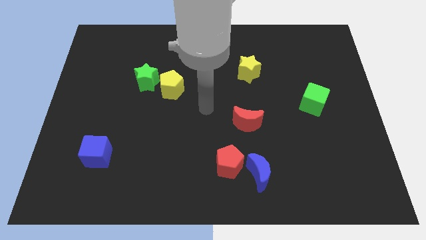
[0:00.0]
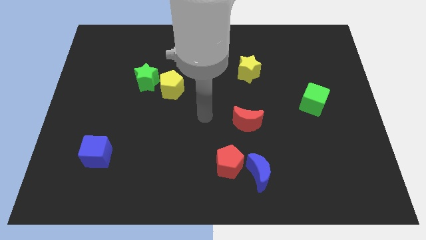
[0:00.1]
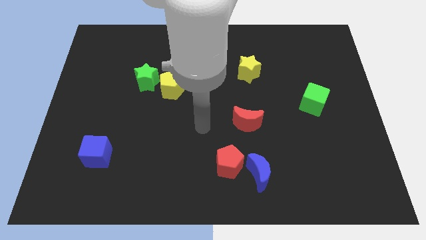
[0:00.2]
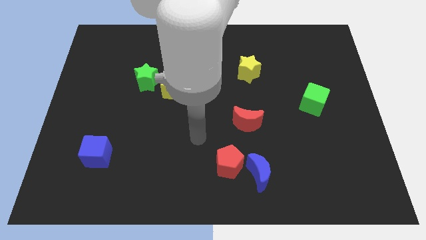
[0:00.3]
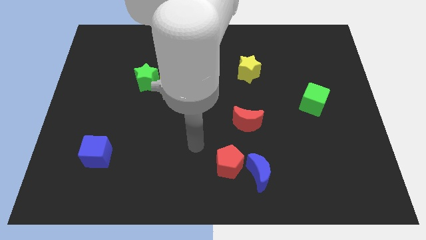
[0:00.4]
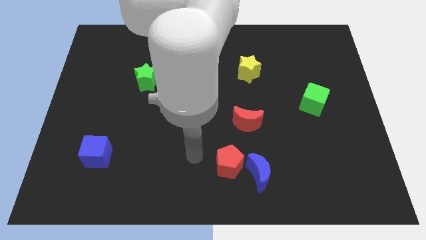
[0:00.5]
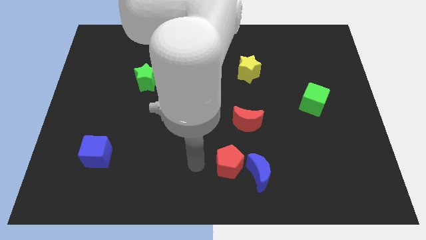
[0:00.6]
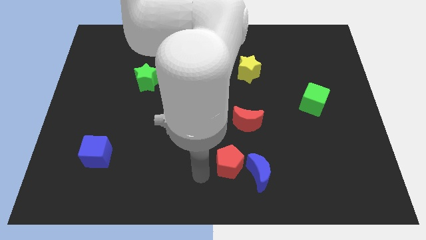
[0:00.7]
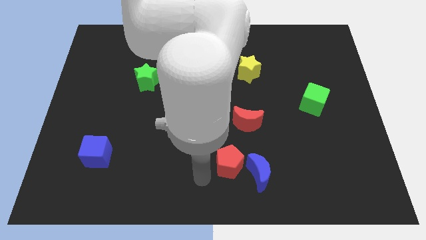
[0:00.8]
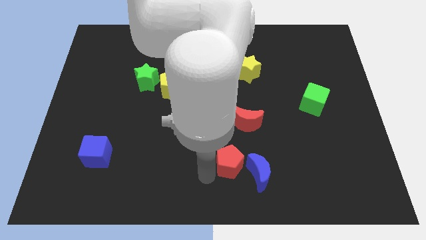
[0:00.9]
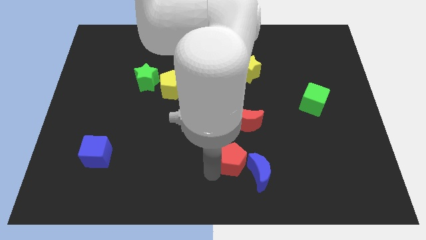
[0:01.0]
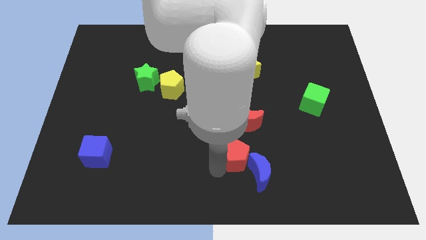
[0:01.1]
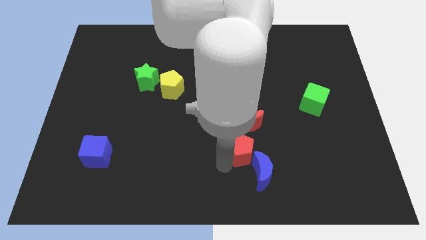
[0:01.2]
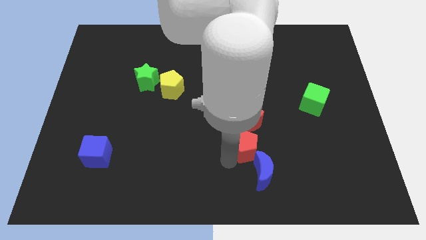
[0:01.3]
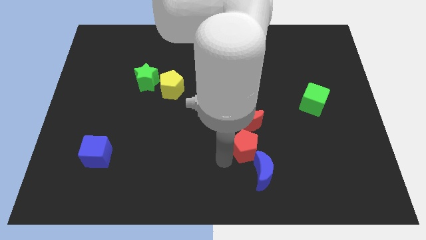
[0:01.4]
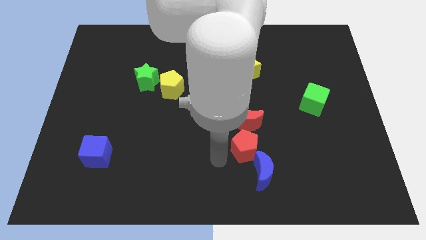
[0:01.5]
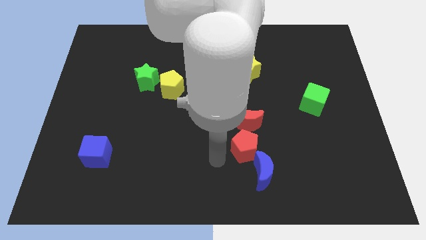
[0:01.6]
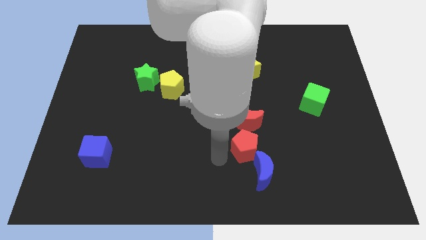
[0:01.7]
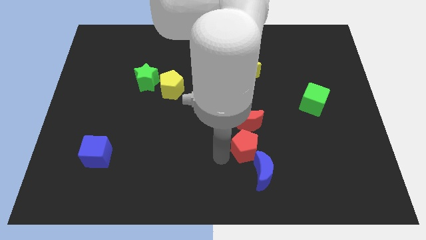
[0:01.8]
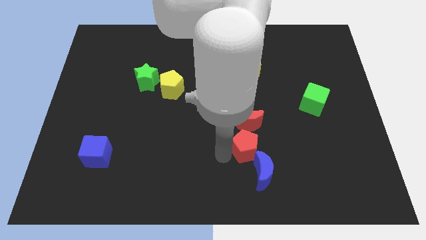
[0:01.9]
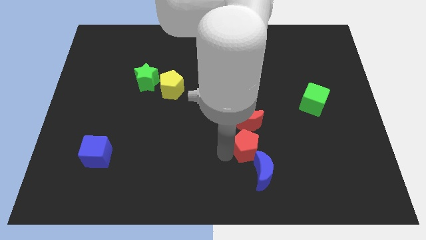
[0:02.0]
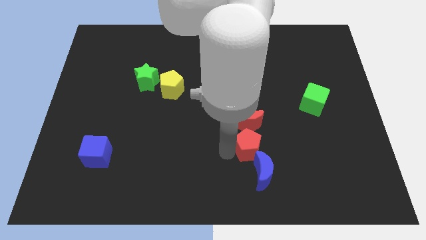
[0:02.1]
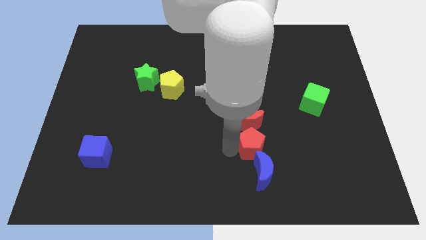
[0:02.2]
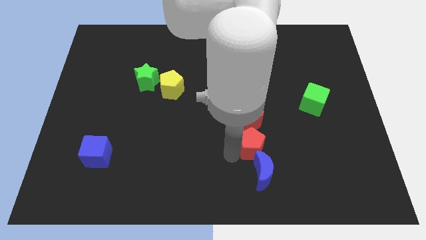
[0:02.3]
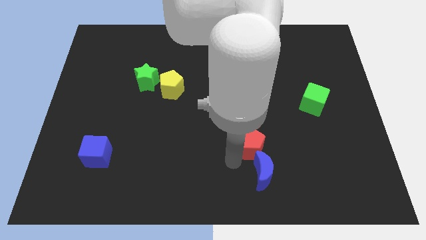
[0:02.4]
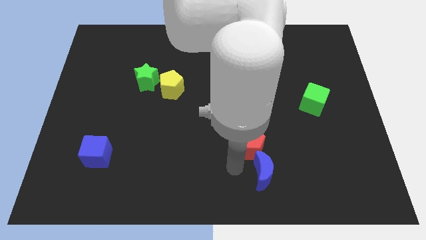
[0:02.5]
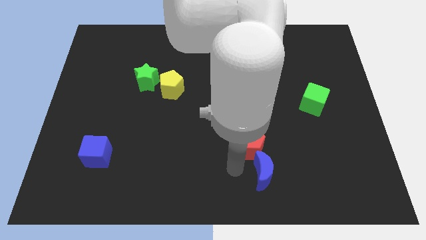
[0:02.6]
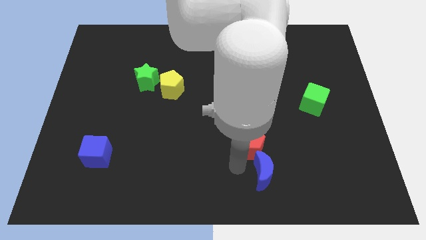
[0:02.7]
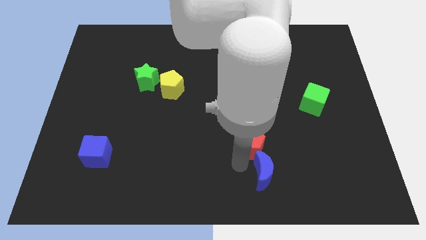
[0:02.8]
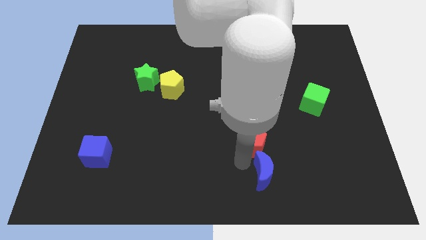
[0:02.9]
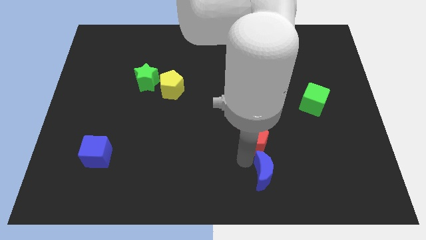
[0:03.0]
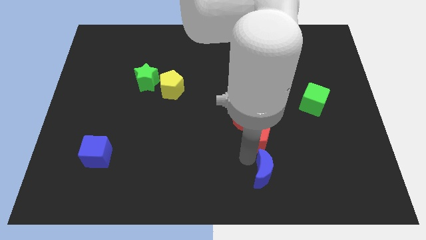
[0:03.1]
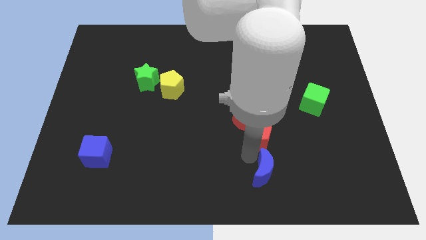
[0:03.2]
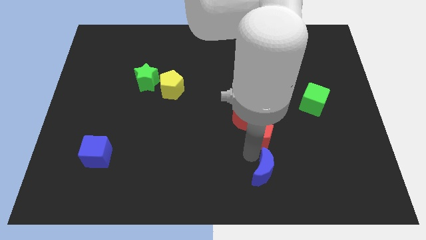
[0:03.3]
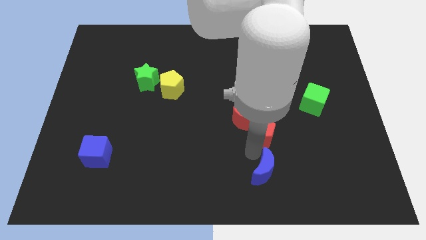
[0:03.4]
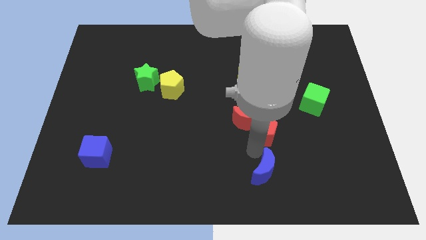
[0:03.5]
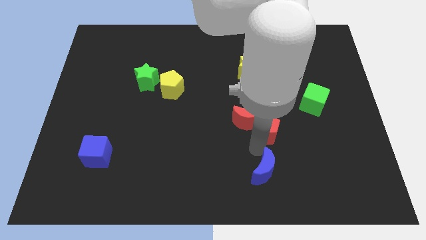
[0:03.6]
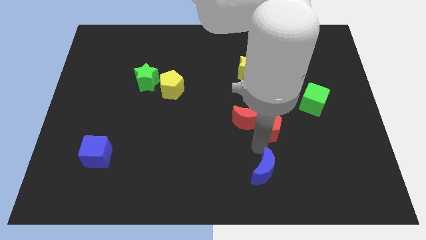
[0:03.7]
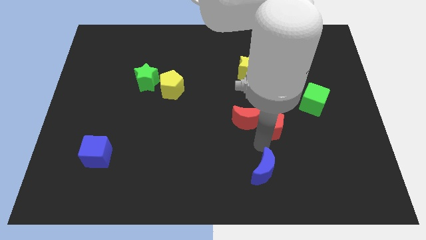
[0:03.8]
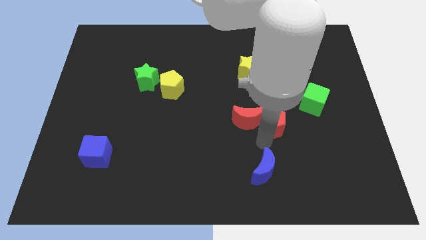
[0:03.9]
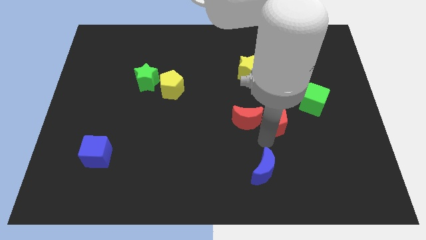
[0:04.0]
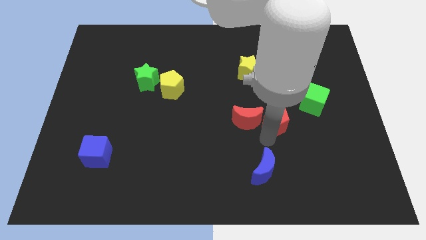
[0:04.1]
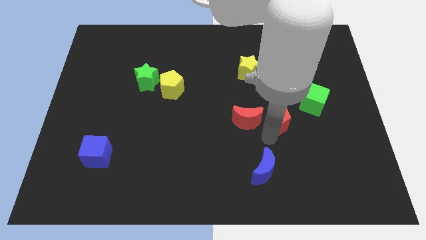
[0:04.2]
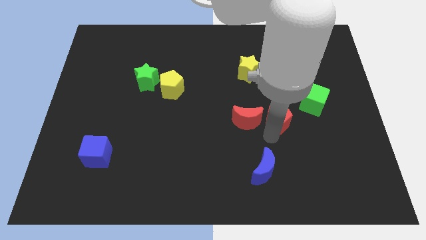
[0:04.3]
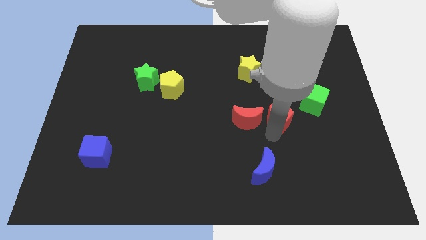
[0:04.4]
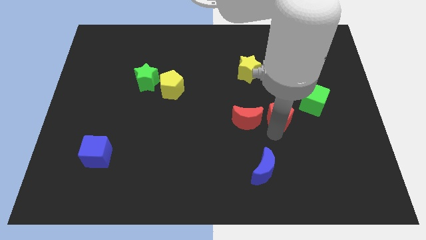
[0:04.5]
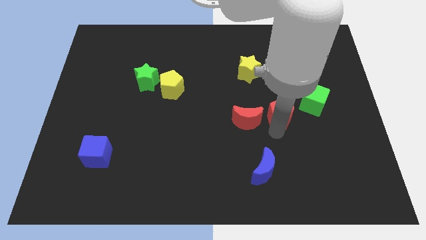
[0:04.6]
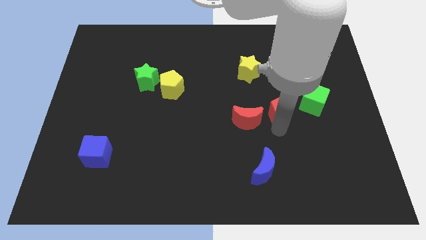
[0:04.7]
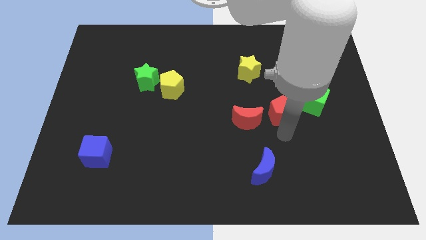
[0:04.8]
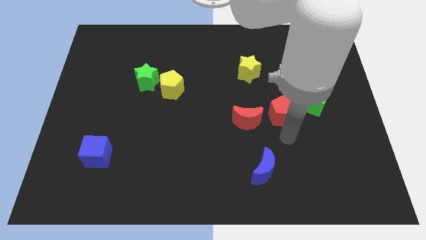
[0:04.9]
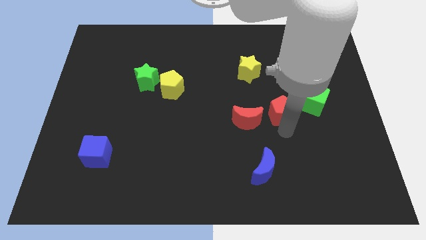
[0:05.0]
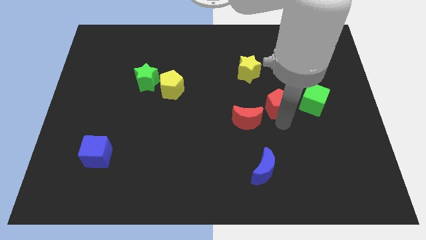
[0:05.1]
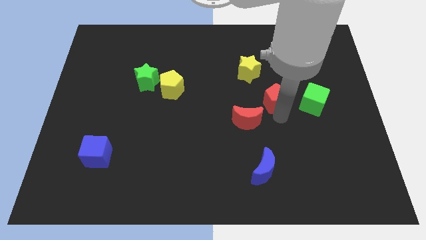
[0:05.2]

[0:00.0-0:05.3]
put the red pentagon to the bottom right side of the yellow star

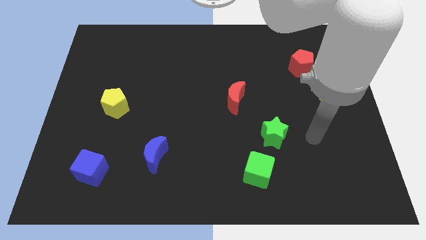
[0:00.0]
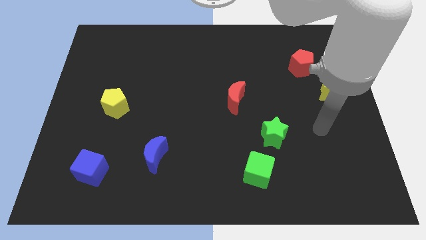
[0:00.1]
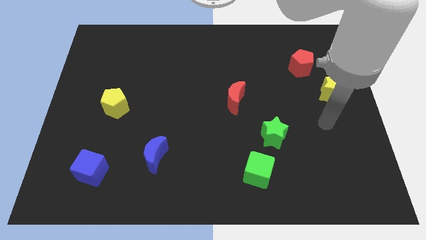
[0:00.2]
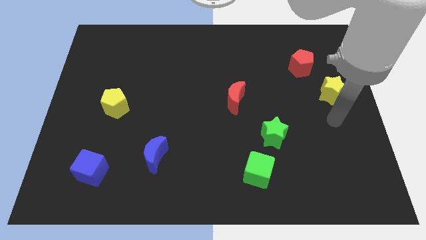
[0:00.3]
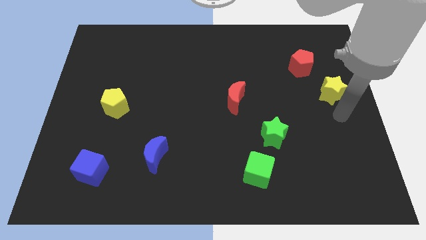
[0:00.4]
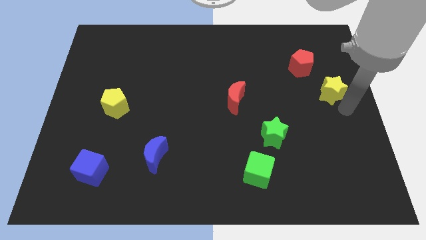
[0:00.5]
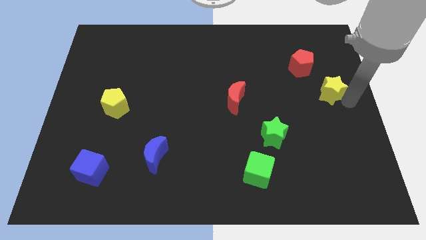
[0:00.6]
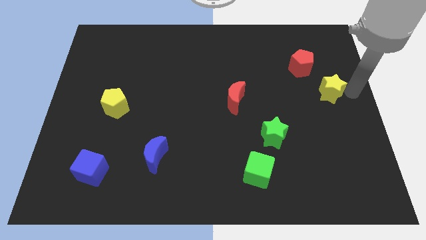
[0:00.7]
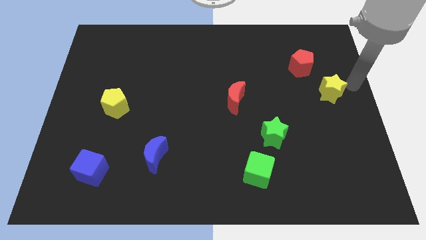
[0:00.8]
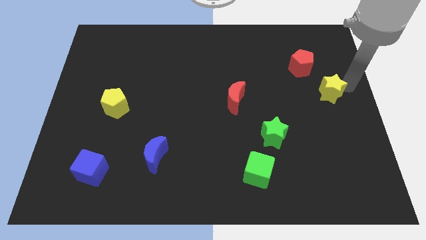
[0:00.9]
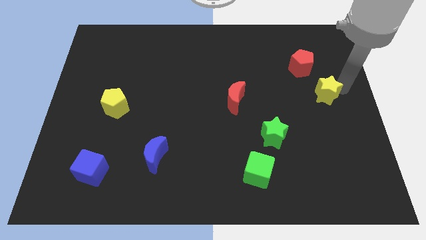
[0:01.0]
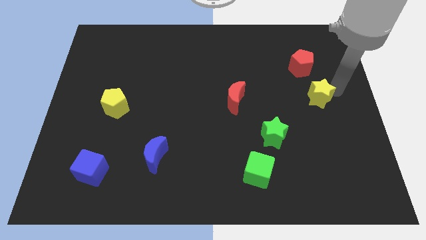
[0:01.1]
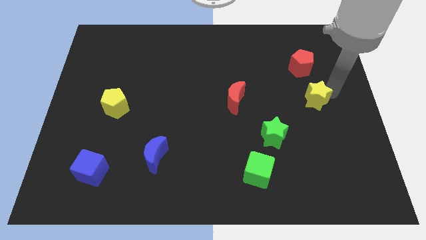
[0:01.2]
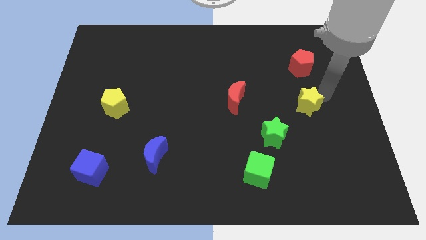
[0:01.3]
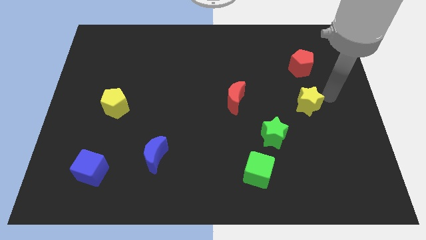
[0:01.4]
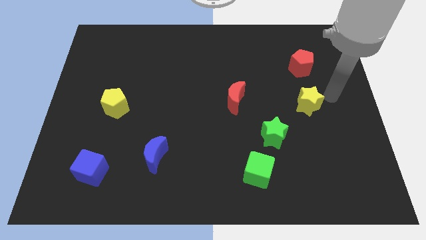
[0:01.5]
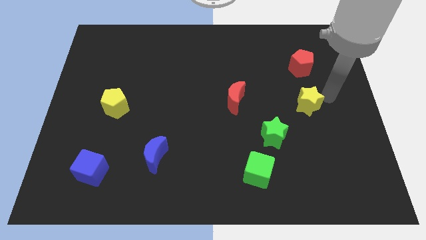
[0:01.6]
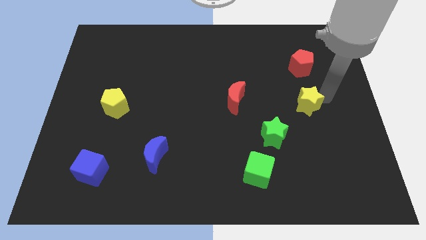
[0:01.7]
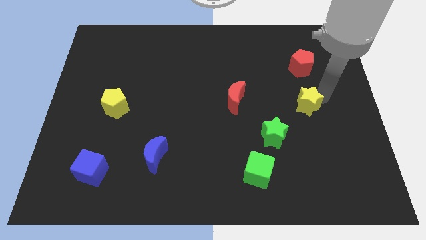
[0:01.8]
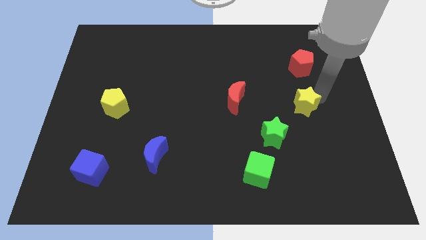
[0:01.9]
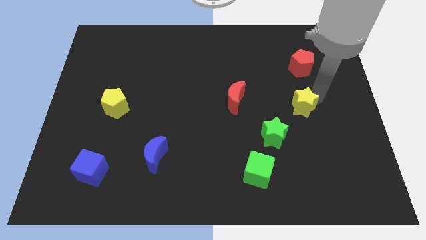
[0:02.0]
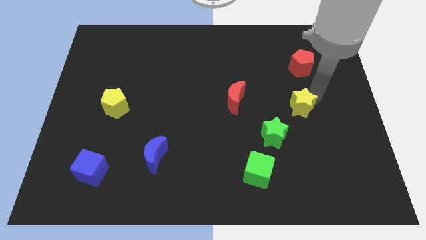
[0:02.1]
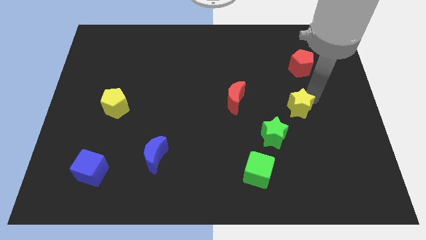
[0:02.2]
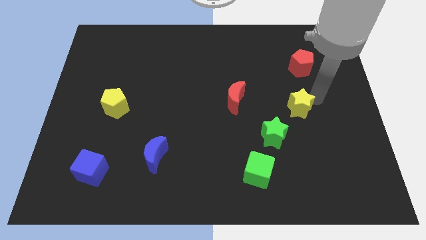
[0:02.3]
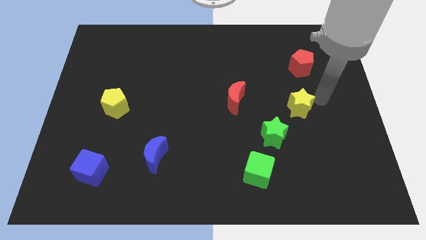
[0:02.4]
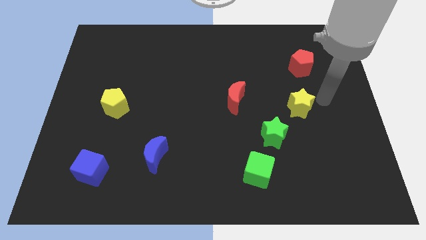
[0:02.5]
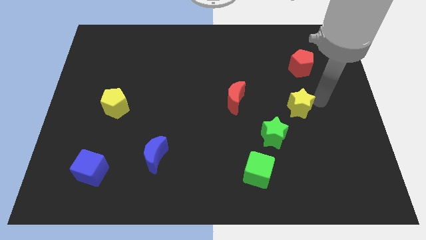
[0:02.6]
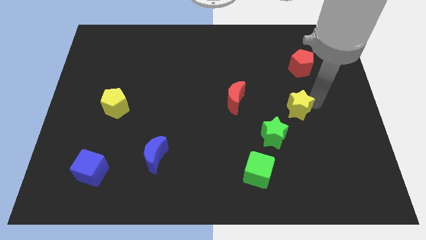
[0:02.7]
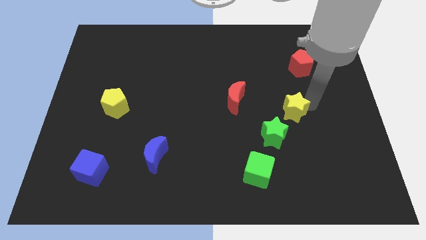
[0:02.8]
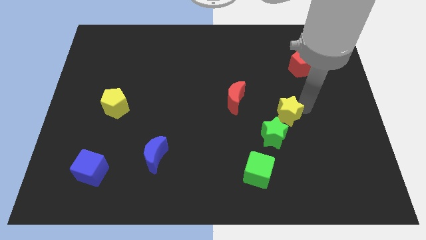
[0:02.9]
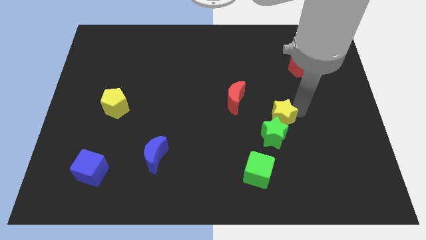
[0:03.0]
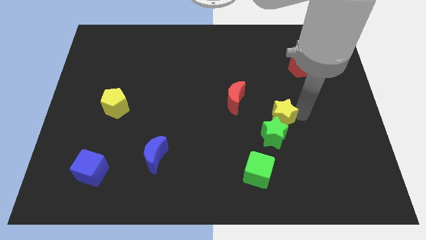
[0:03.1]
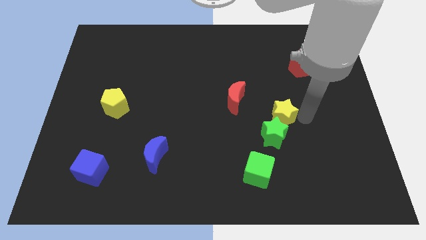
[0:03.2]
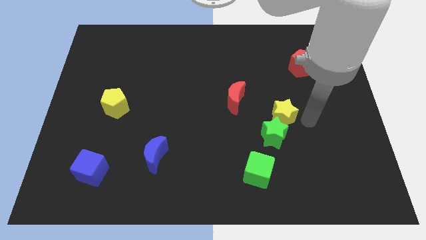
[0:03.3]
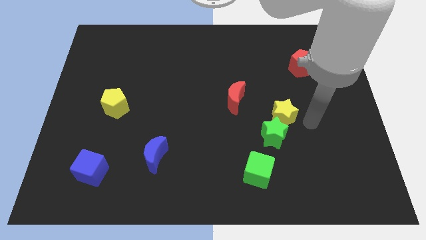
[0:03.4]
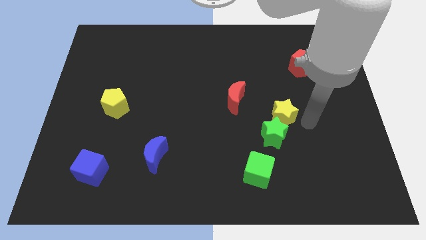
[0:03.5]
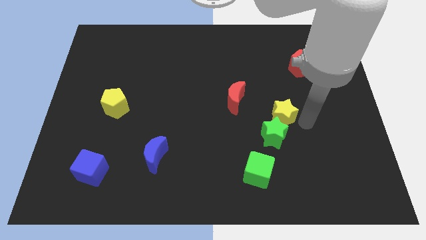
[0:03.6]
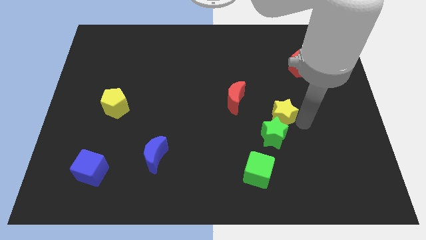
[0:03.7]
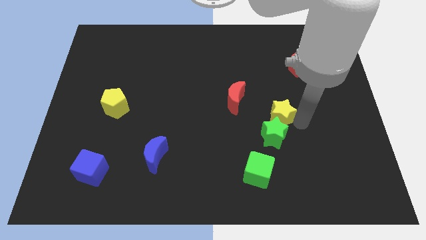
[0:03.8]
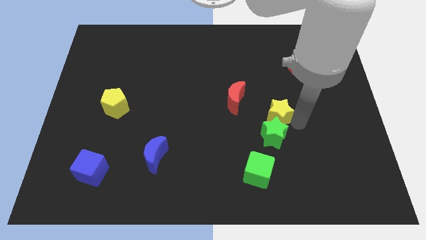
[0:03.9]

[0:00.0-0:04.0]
put the yellow star diagonally up and to the left of the green star
